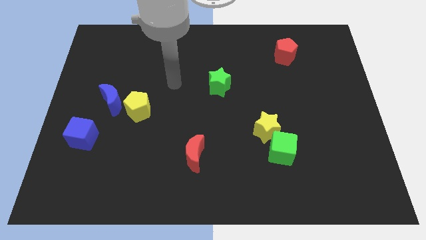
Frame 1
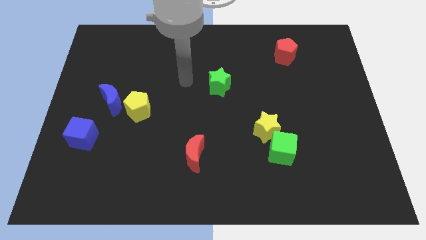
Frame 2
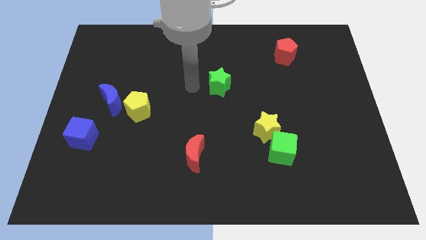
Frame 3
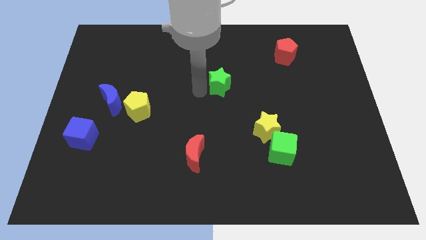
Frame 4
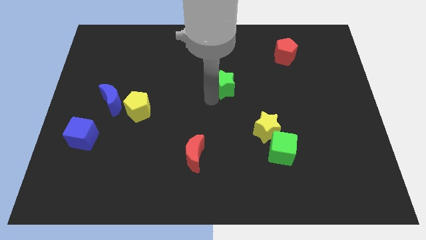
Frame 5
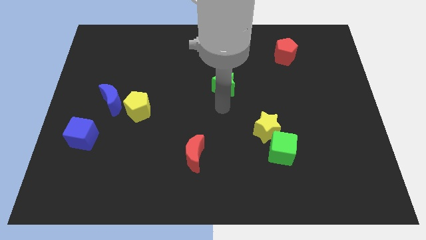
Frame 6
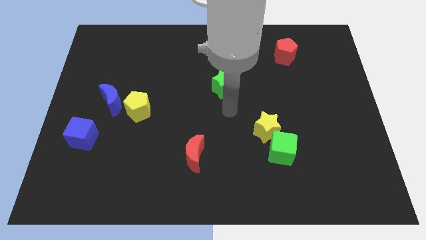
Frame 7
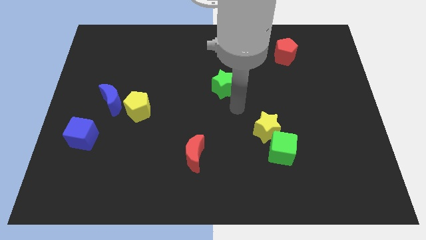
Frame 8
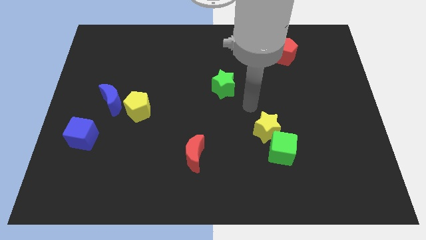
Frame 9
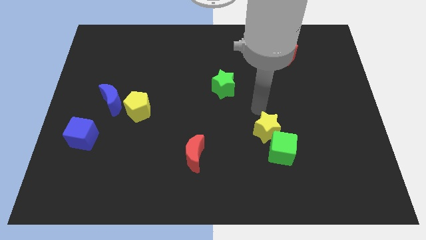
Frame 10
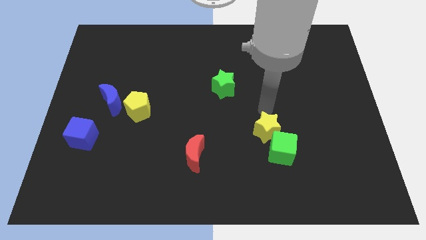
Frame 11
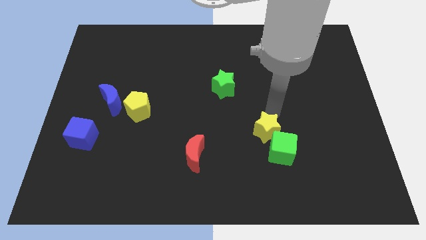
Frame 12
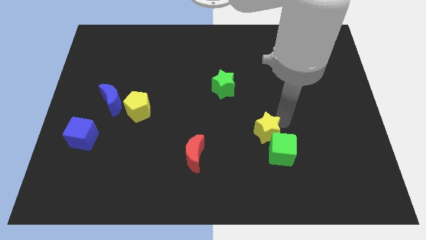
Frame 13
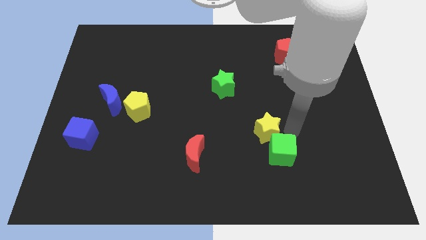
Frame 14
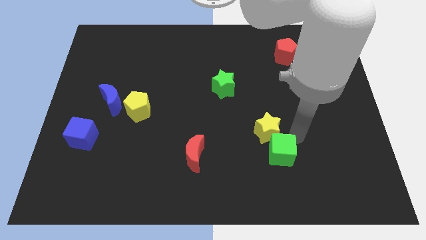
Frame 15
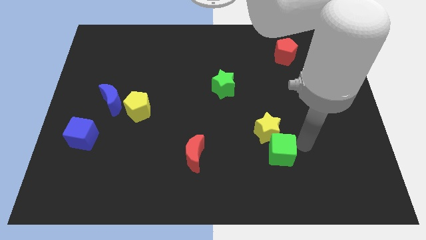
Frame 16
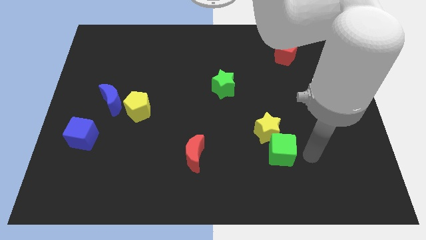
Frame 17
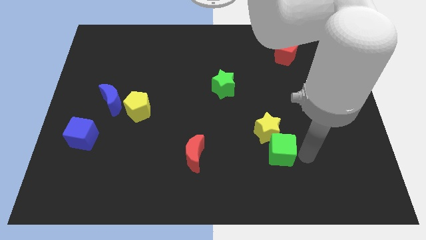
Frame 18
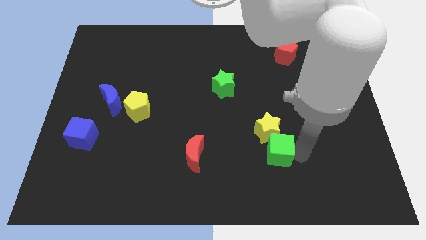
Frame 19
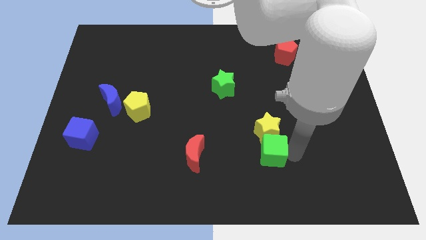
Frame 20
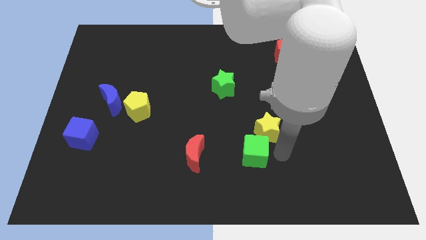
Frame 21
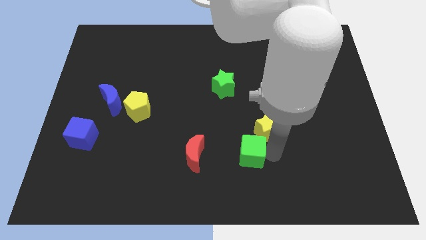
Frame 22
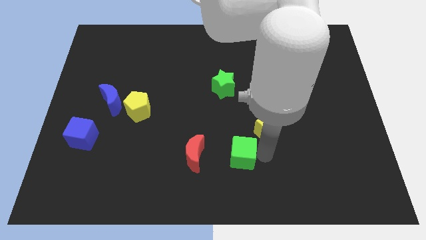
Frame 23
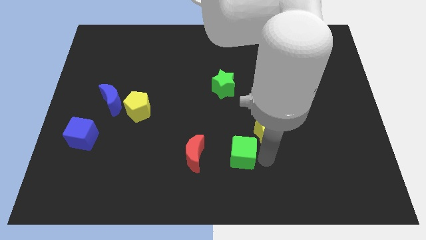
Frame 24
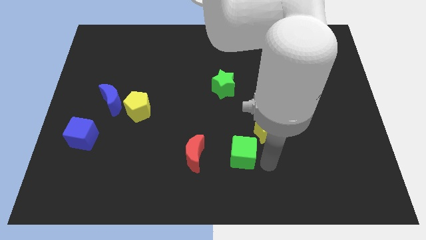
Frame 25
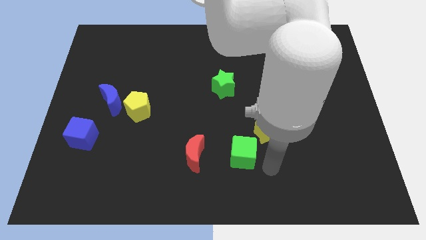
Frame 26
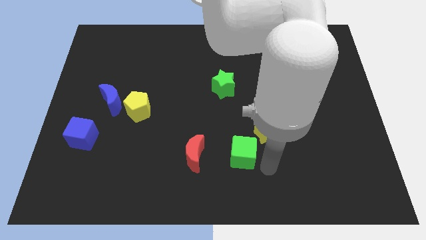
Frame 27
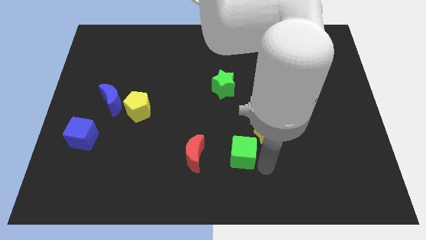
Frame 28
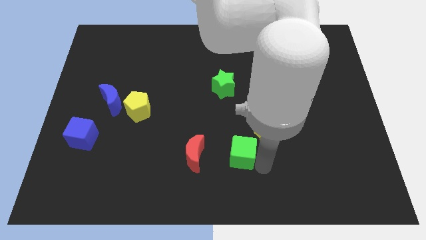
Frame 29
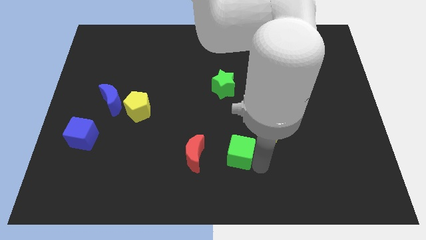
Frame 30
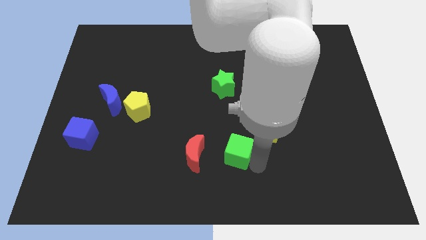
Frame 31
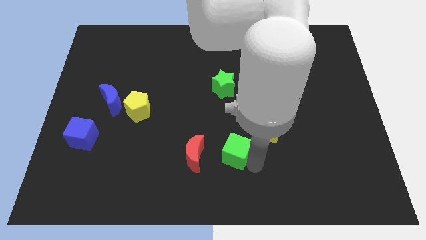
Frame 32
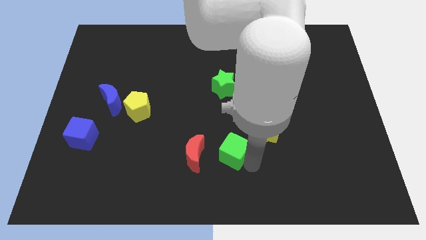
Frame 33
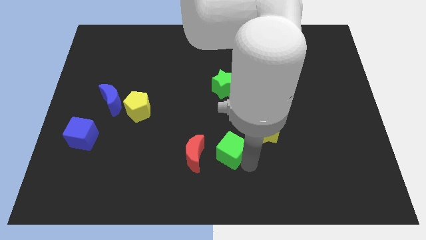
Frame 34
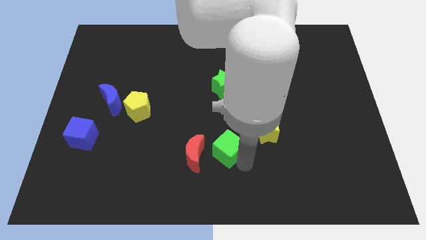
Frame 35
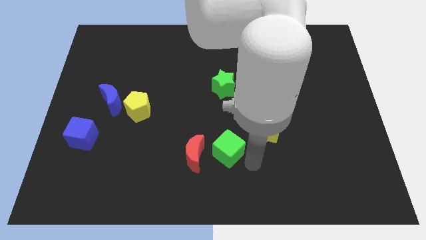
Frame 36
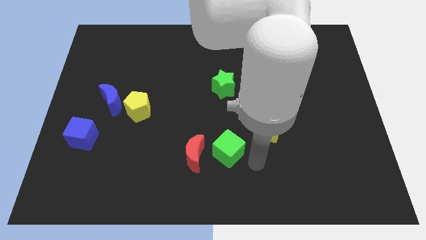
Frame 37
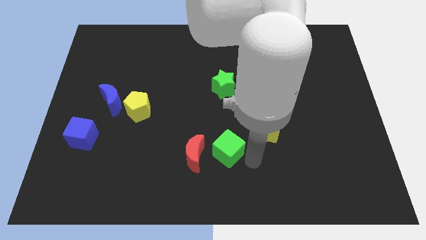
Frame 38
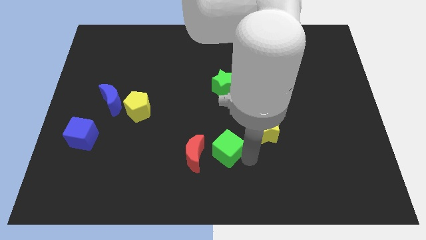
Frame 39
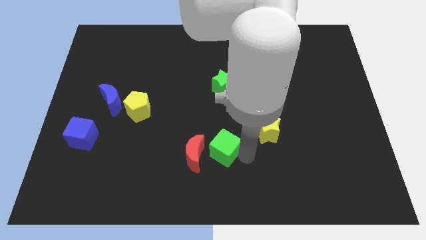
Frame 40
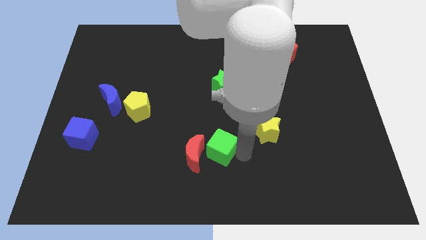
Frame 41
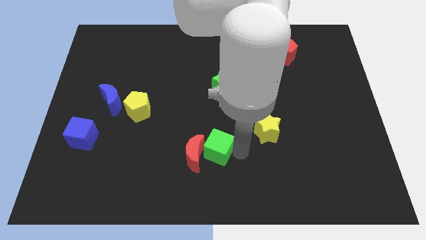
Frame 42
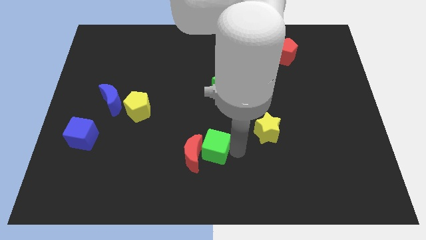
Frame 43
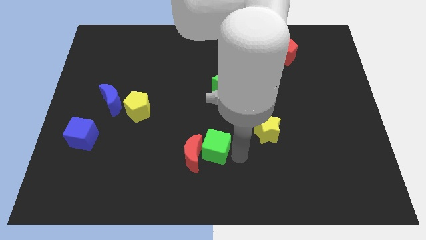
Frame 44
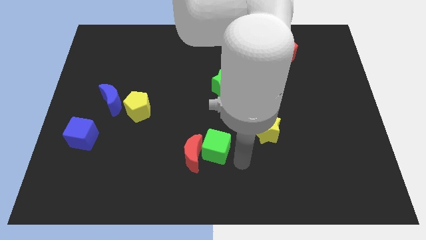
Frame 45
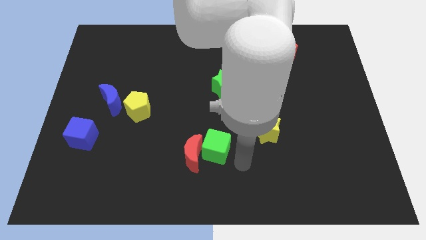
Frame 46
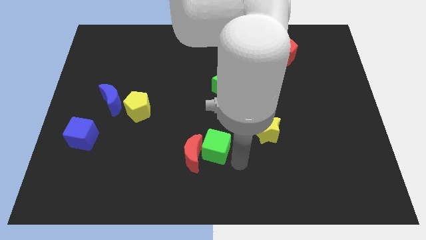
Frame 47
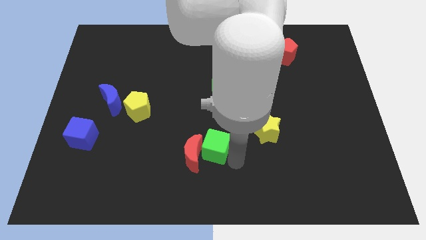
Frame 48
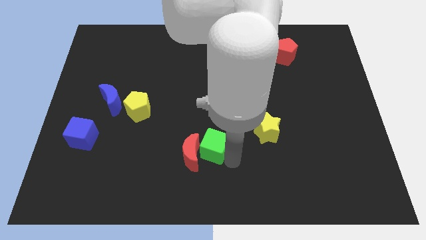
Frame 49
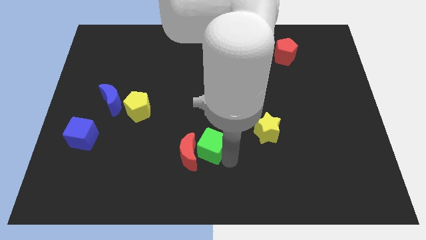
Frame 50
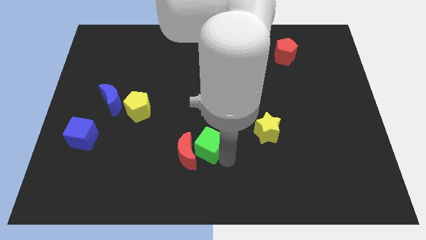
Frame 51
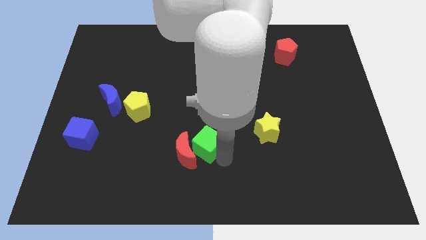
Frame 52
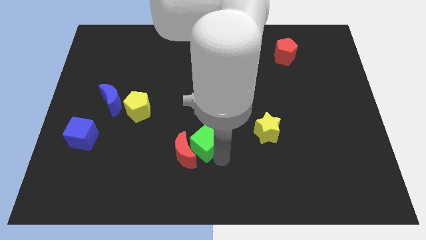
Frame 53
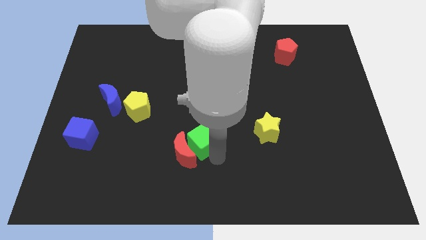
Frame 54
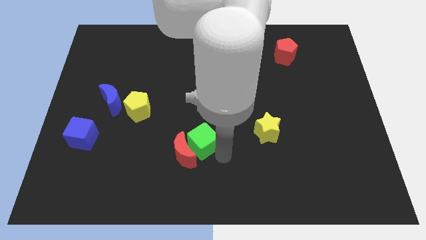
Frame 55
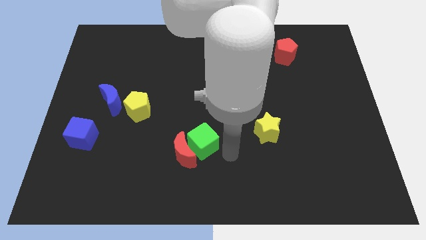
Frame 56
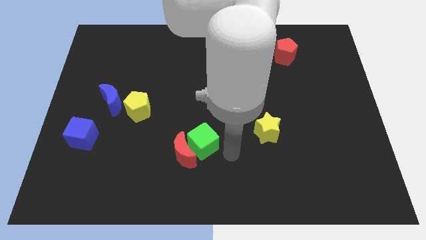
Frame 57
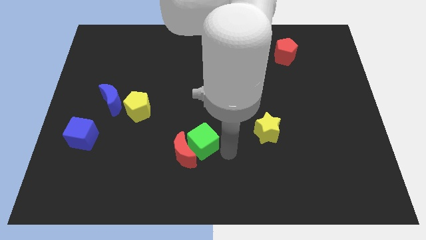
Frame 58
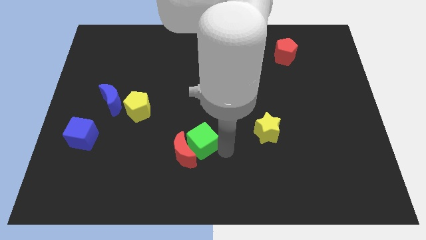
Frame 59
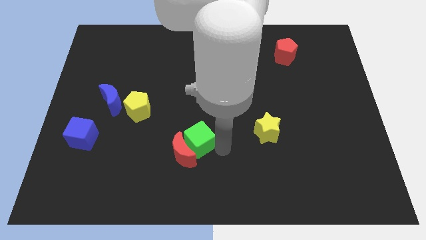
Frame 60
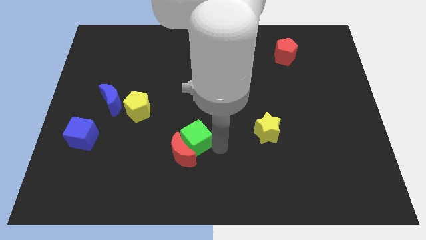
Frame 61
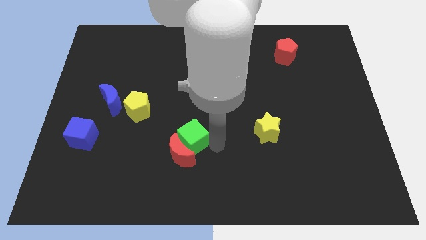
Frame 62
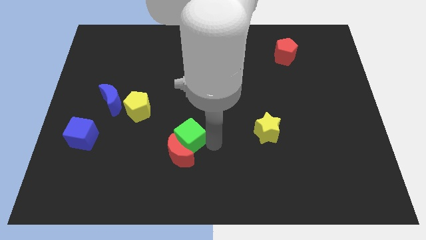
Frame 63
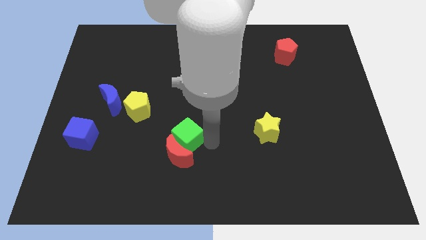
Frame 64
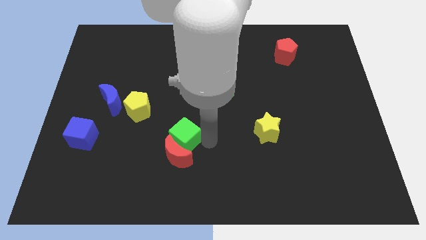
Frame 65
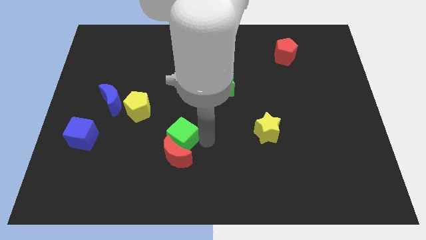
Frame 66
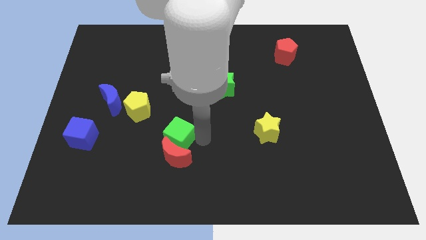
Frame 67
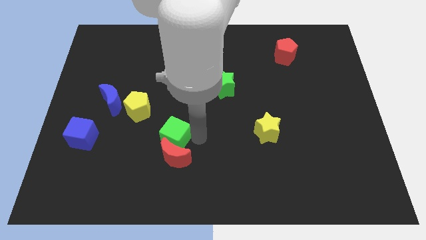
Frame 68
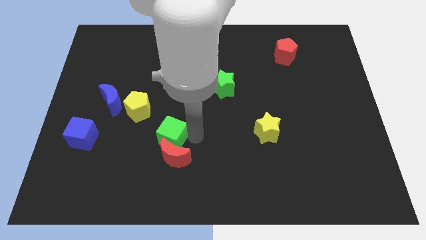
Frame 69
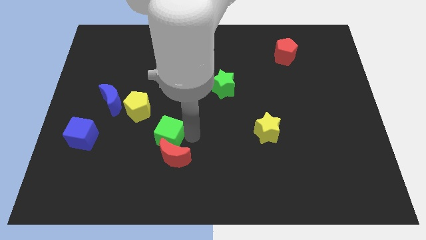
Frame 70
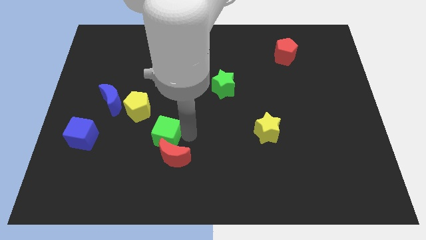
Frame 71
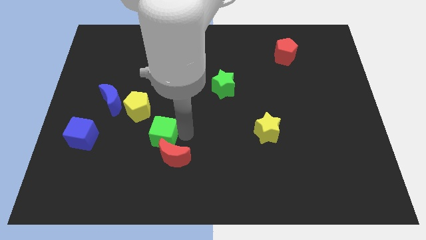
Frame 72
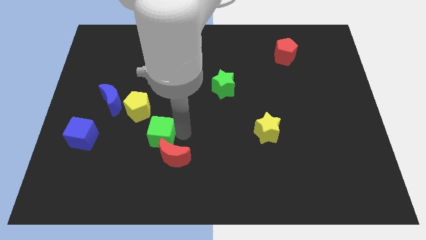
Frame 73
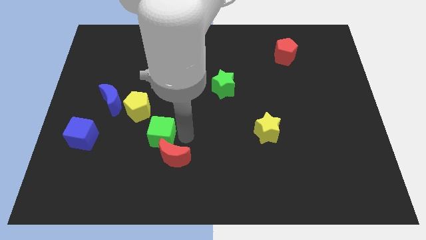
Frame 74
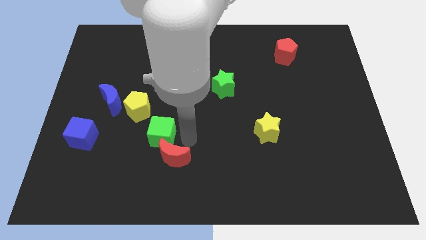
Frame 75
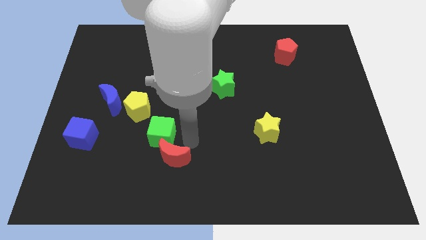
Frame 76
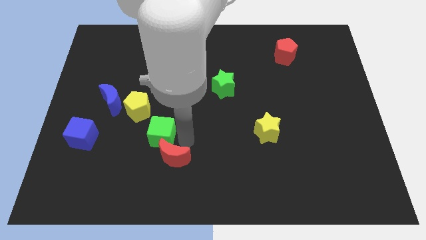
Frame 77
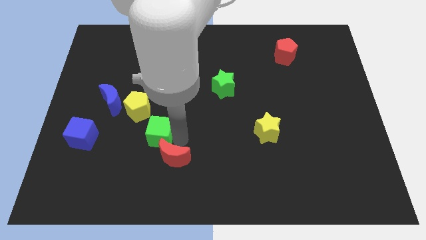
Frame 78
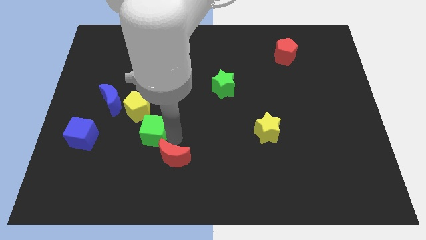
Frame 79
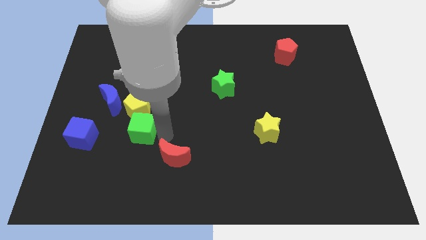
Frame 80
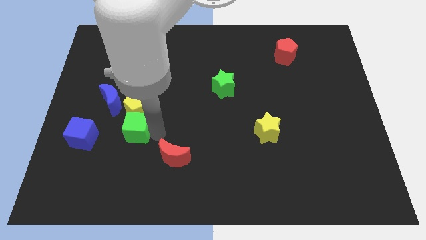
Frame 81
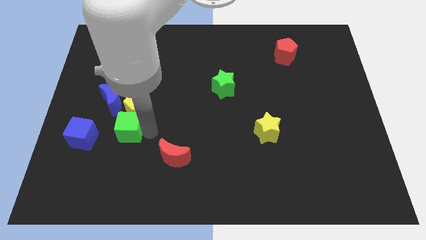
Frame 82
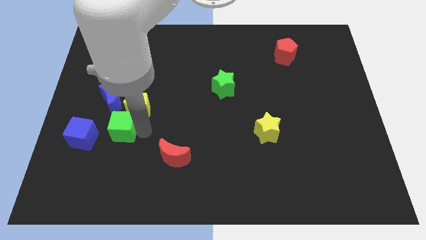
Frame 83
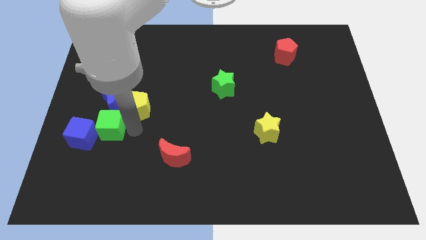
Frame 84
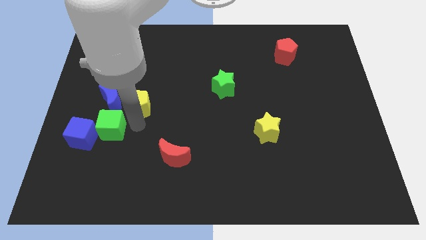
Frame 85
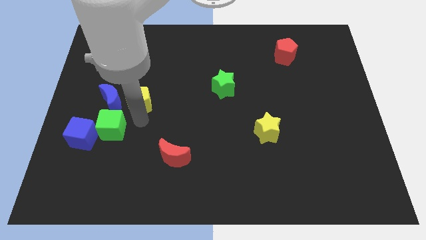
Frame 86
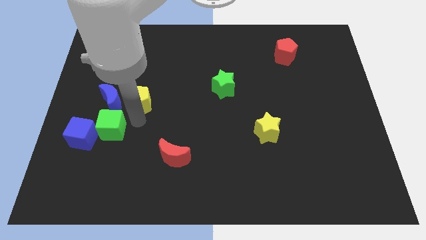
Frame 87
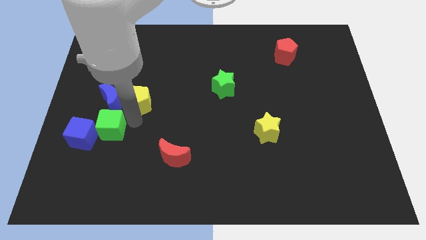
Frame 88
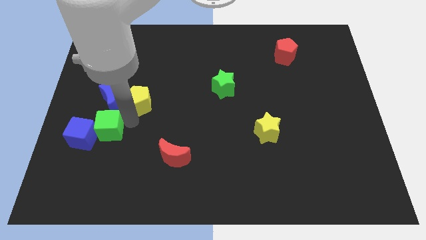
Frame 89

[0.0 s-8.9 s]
move the green cube close to the blue cube
